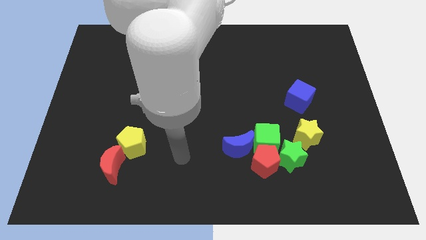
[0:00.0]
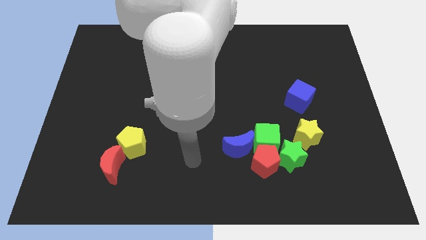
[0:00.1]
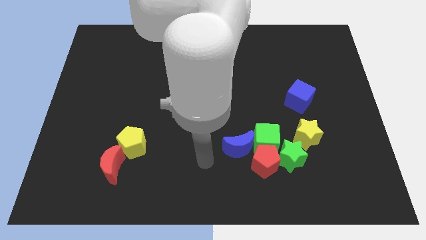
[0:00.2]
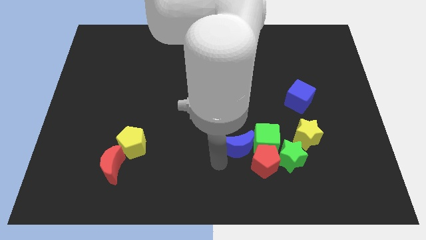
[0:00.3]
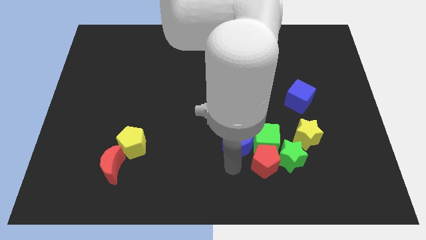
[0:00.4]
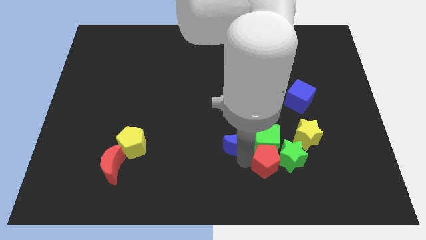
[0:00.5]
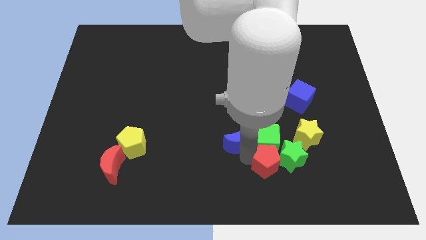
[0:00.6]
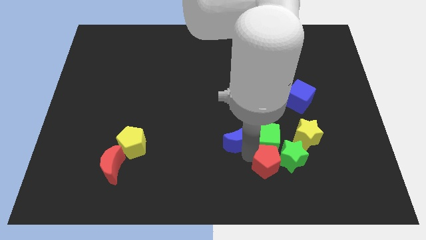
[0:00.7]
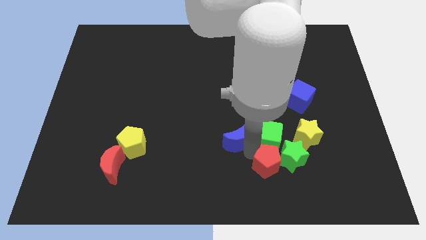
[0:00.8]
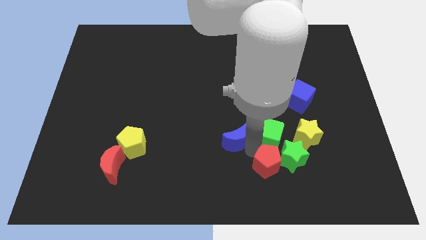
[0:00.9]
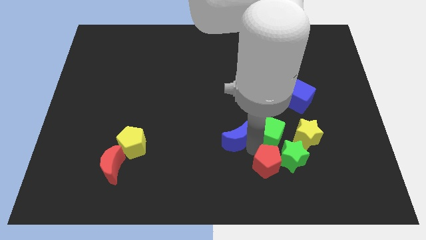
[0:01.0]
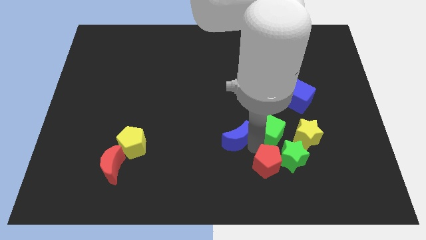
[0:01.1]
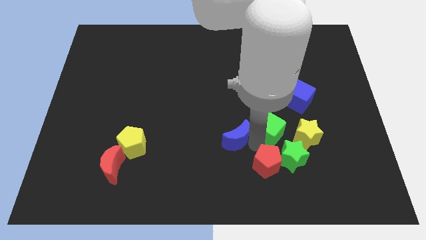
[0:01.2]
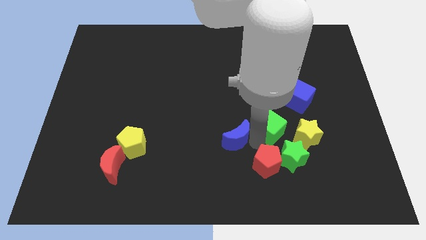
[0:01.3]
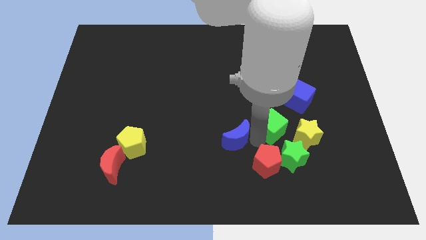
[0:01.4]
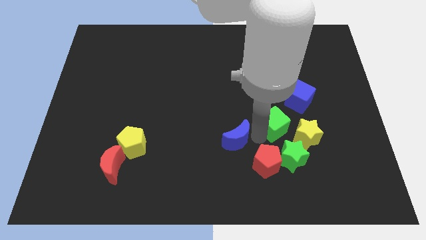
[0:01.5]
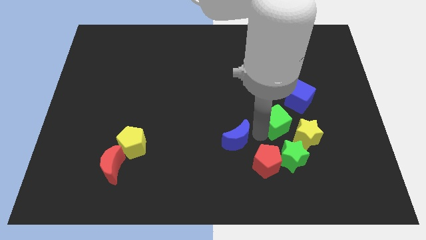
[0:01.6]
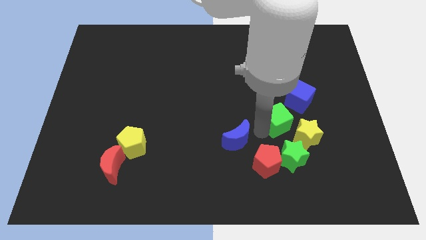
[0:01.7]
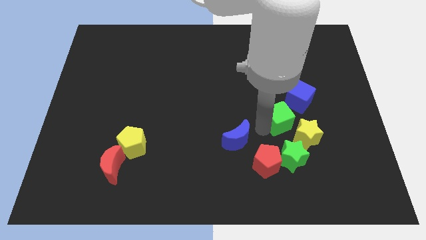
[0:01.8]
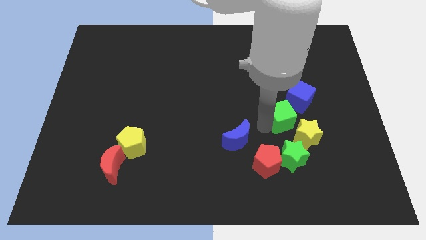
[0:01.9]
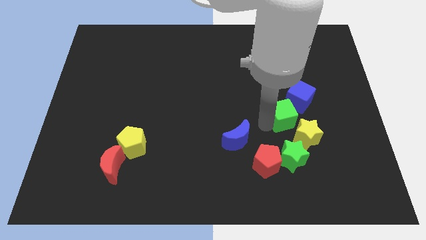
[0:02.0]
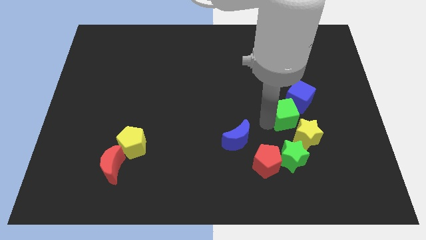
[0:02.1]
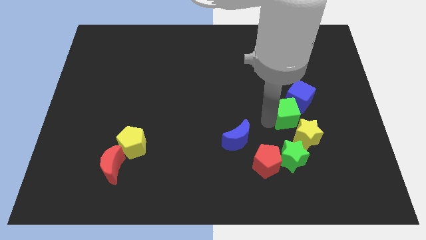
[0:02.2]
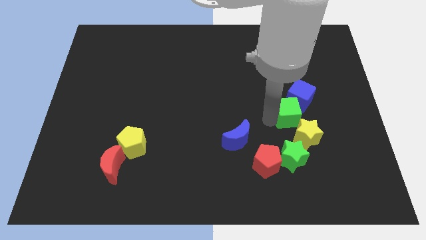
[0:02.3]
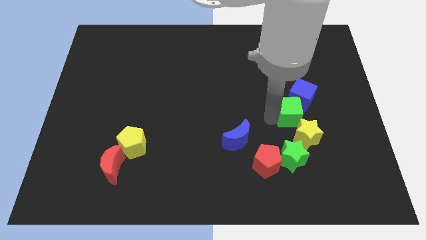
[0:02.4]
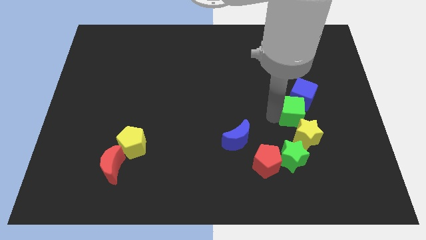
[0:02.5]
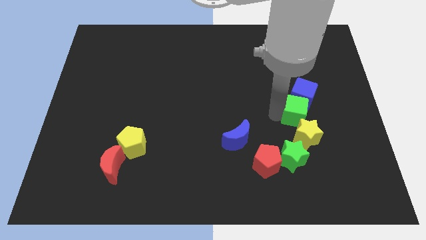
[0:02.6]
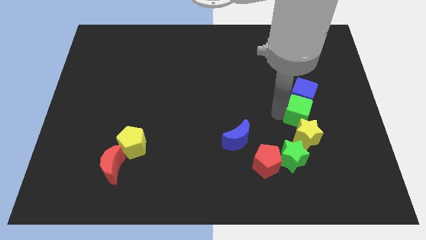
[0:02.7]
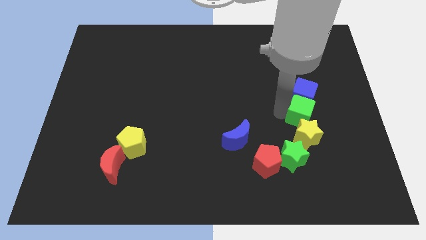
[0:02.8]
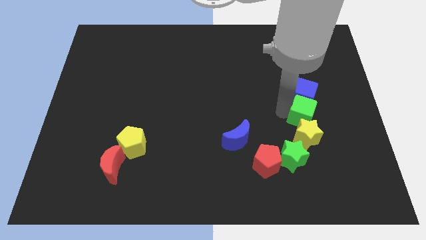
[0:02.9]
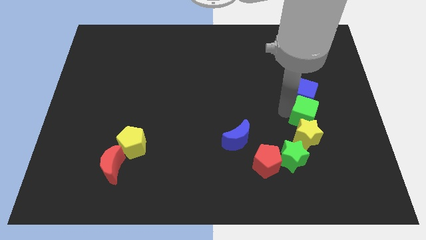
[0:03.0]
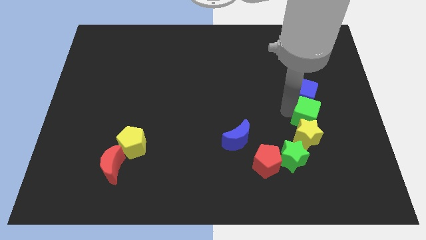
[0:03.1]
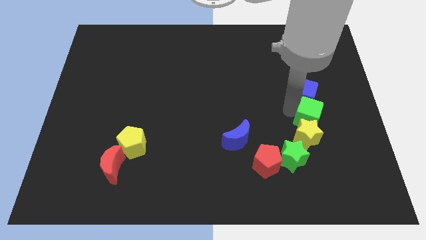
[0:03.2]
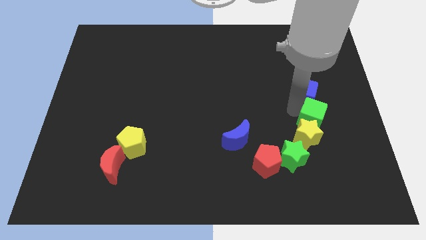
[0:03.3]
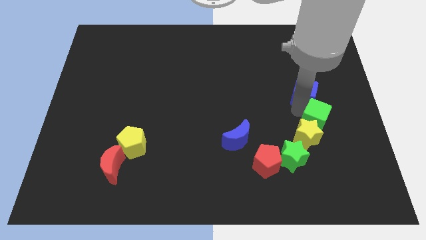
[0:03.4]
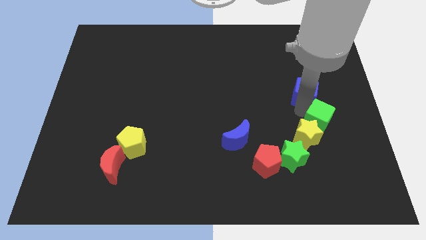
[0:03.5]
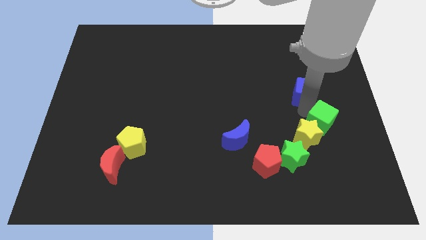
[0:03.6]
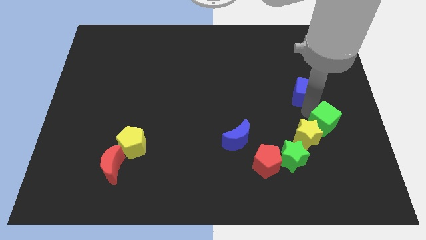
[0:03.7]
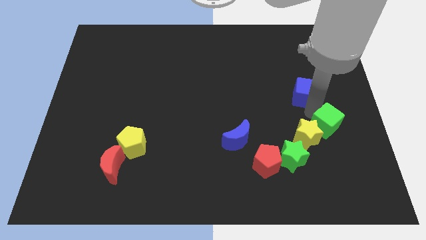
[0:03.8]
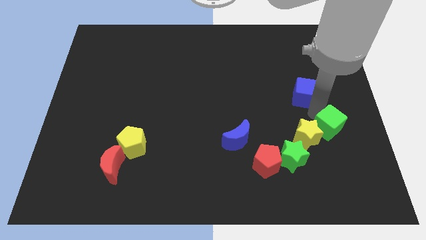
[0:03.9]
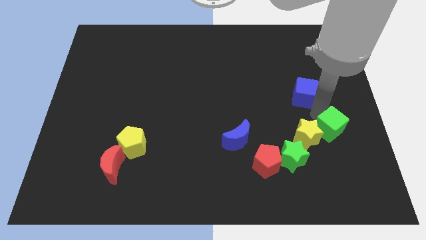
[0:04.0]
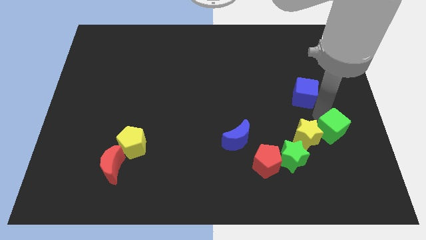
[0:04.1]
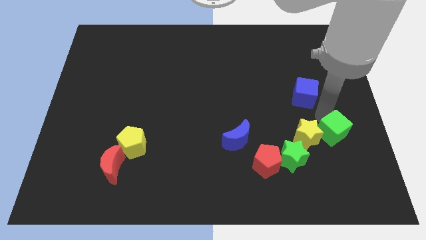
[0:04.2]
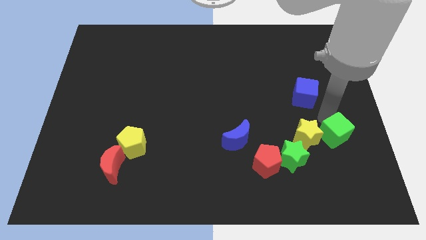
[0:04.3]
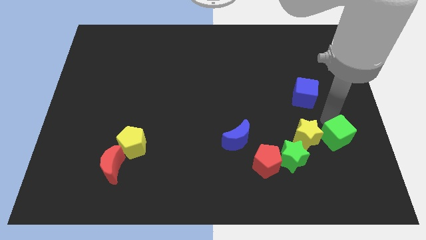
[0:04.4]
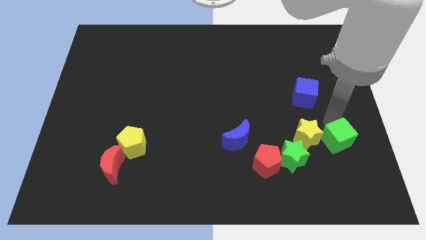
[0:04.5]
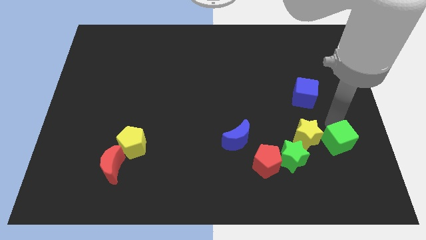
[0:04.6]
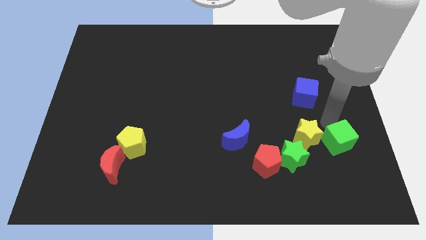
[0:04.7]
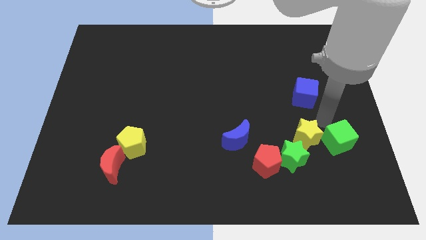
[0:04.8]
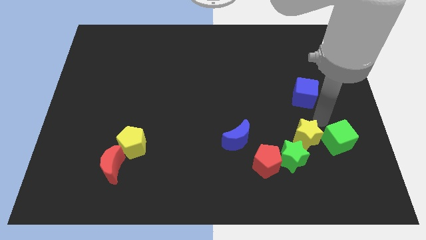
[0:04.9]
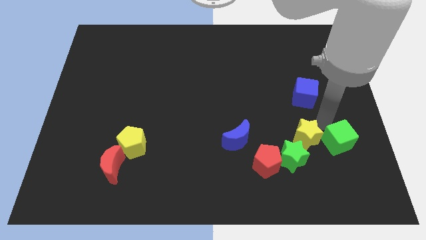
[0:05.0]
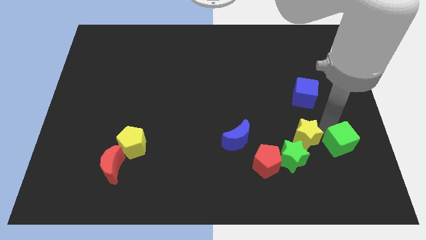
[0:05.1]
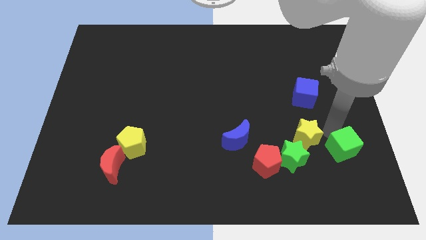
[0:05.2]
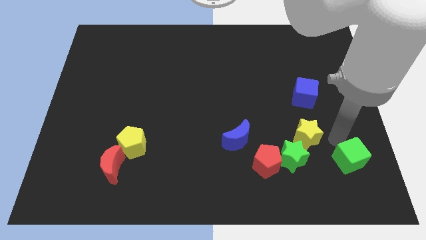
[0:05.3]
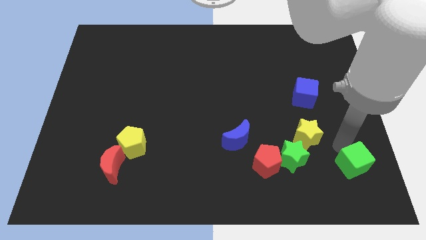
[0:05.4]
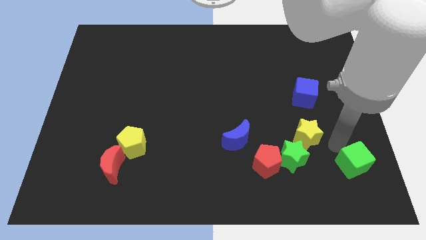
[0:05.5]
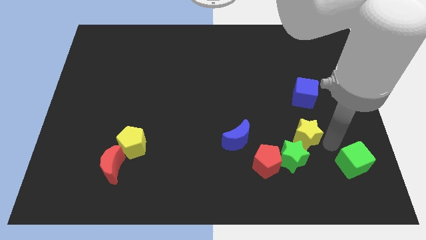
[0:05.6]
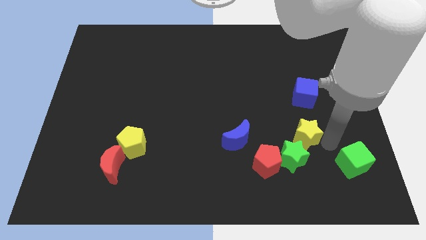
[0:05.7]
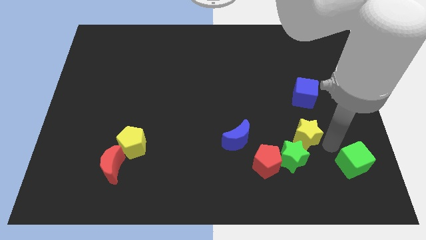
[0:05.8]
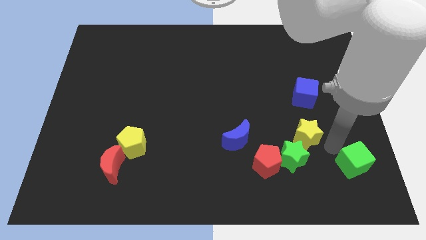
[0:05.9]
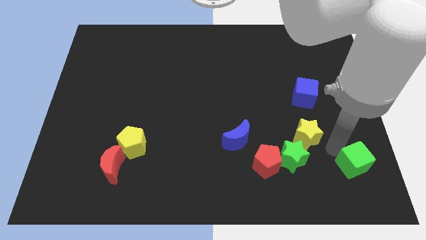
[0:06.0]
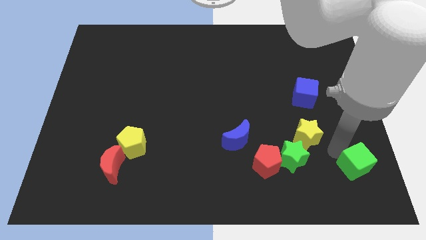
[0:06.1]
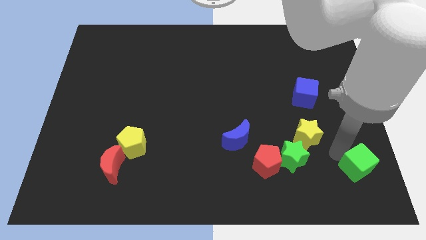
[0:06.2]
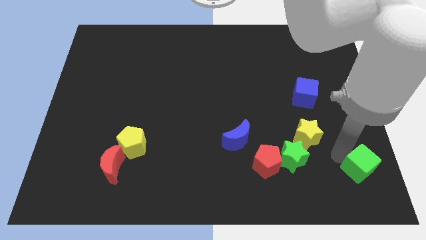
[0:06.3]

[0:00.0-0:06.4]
put the green cube to the bottom right corner
